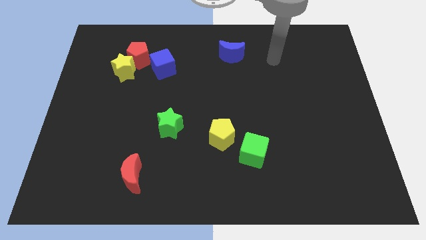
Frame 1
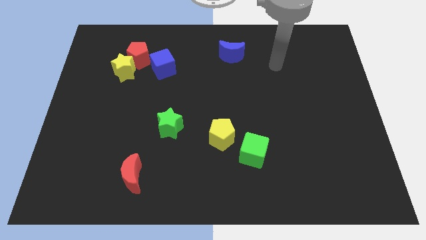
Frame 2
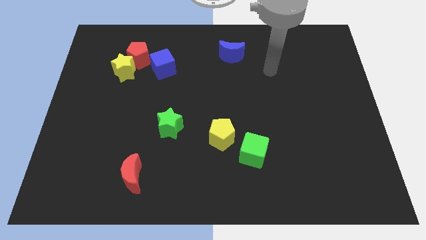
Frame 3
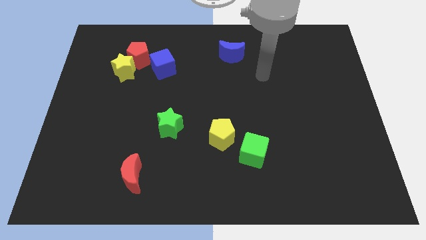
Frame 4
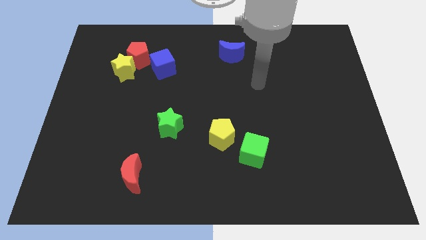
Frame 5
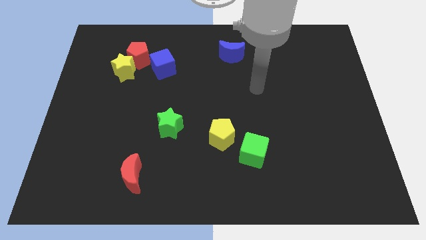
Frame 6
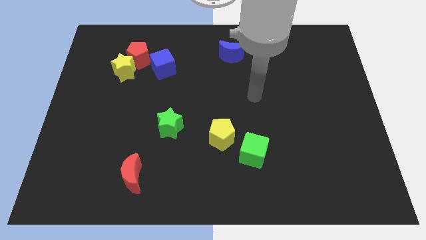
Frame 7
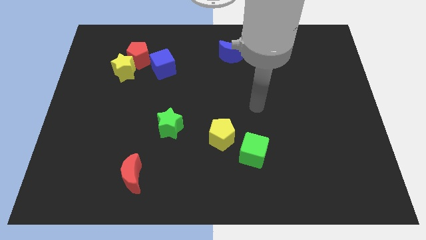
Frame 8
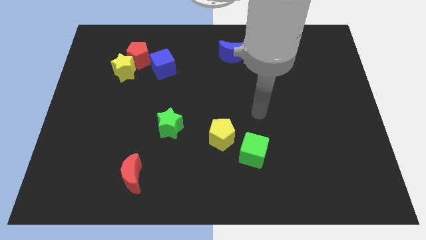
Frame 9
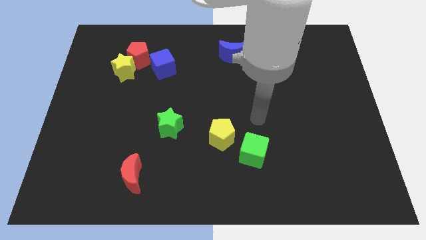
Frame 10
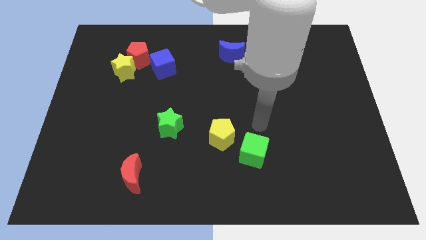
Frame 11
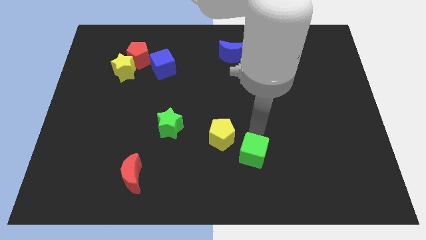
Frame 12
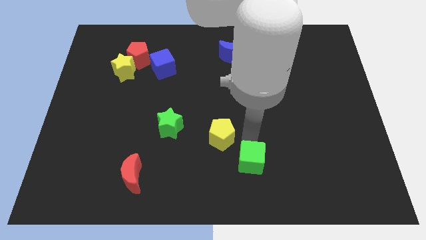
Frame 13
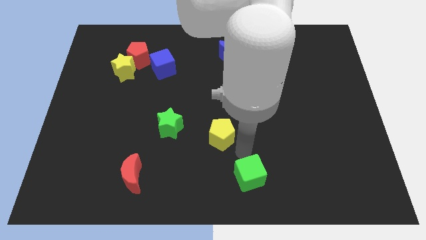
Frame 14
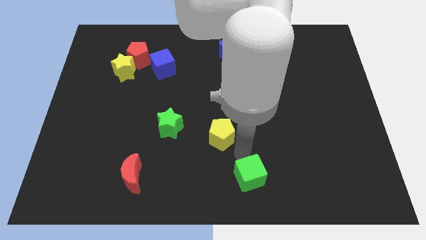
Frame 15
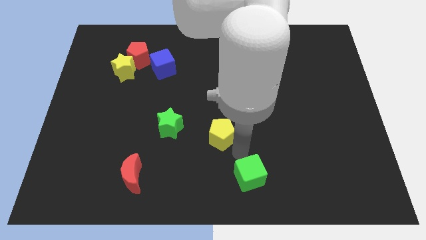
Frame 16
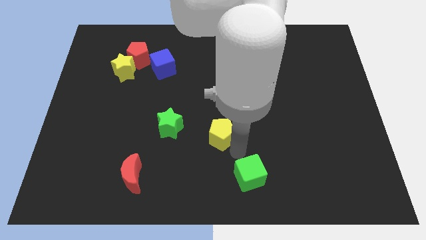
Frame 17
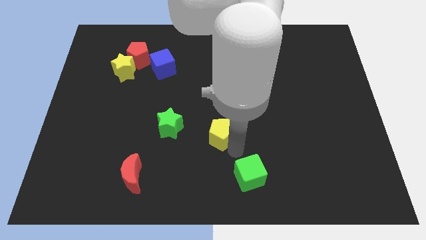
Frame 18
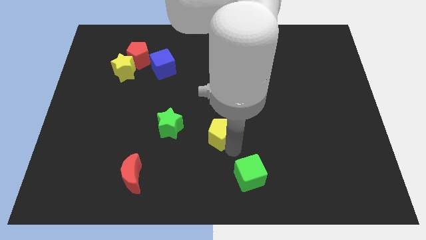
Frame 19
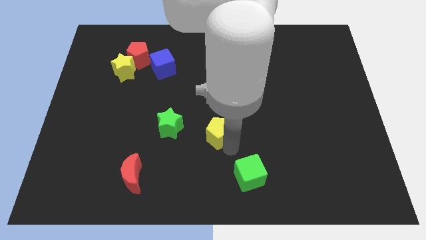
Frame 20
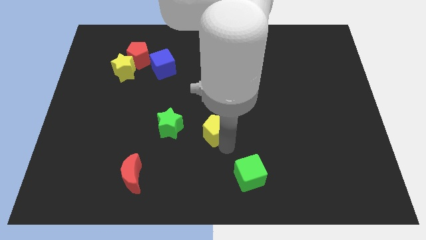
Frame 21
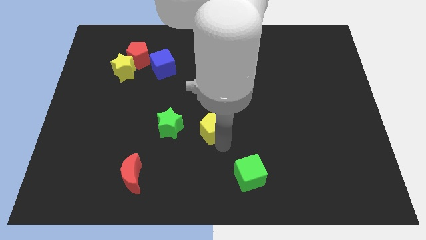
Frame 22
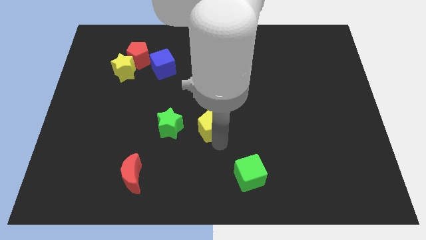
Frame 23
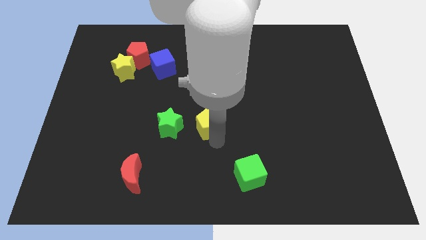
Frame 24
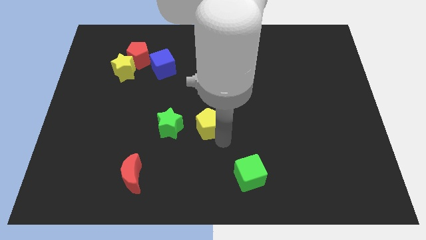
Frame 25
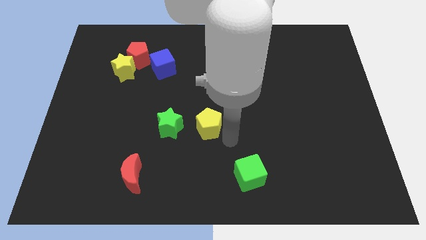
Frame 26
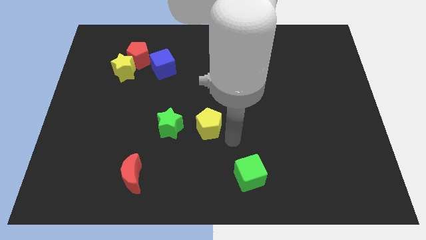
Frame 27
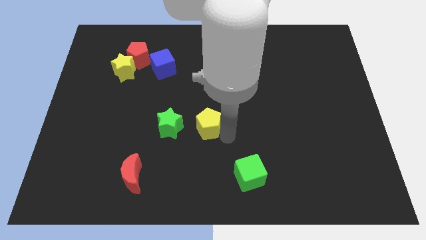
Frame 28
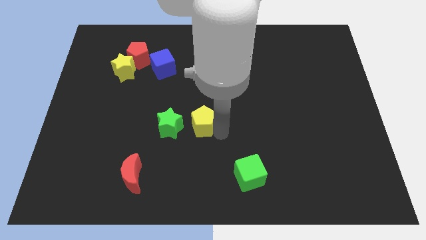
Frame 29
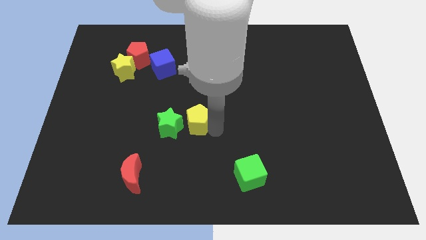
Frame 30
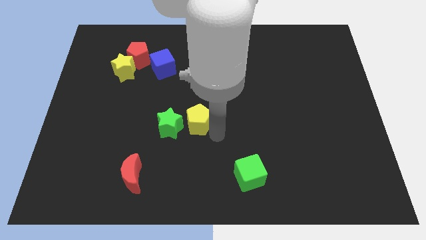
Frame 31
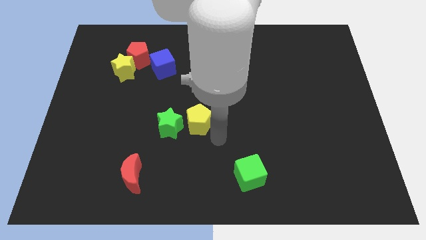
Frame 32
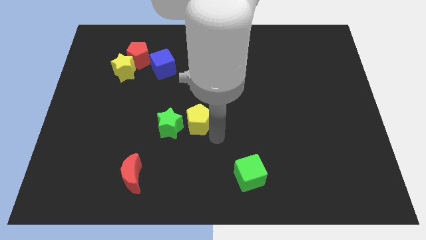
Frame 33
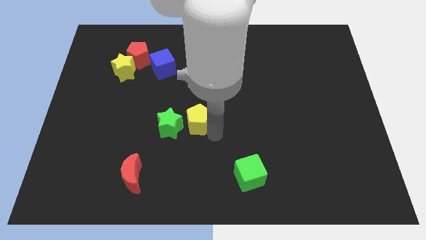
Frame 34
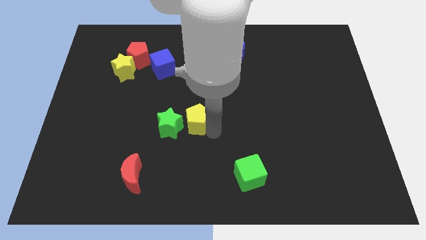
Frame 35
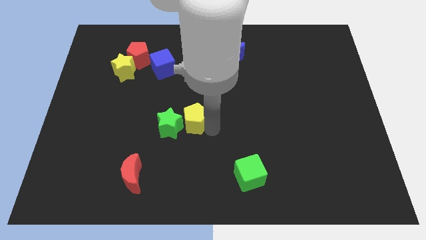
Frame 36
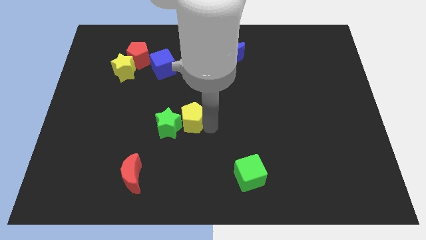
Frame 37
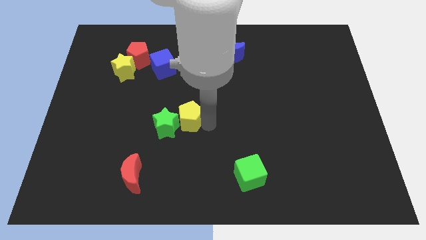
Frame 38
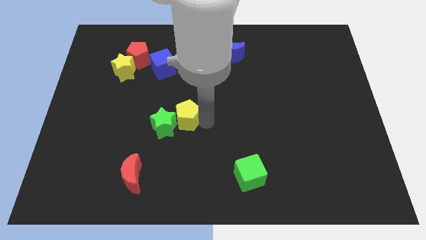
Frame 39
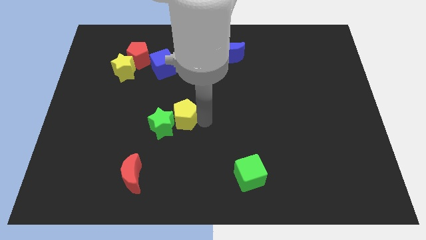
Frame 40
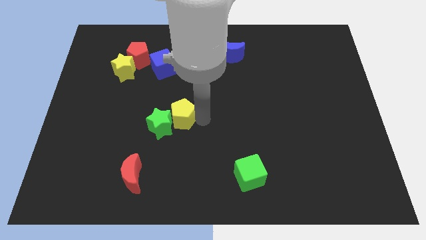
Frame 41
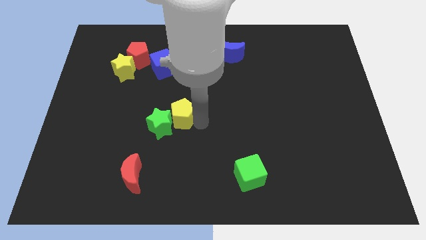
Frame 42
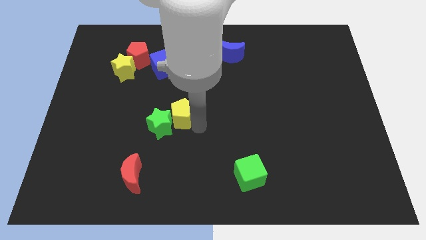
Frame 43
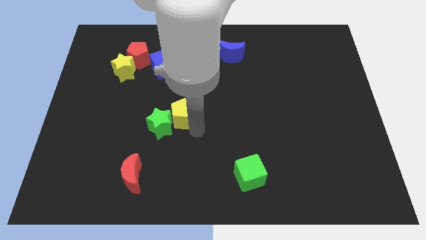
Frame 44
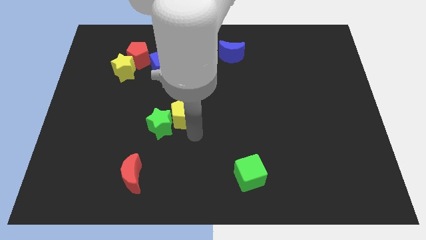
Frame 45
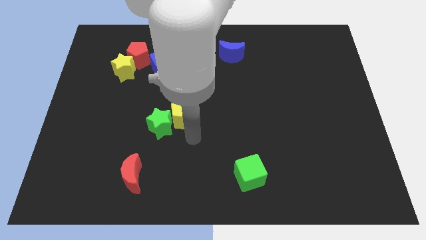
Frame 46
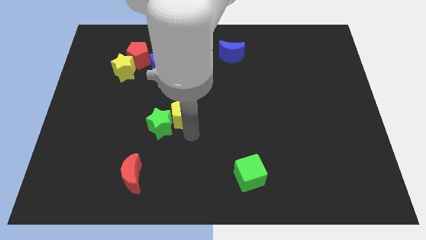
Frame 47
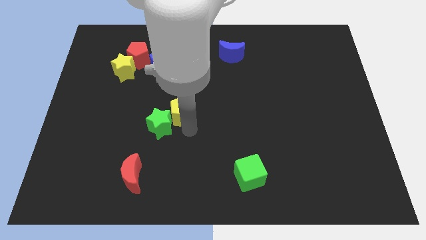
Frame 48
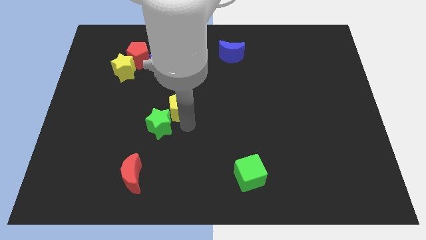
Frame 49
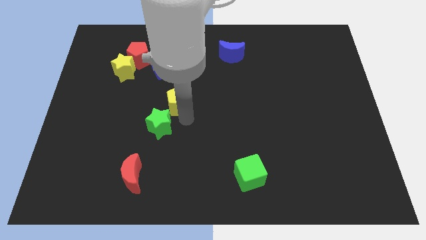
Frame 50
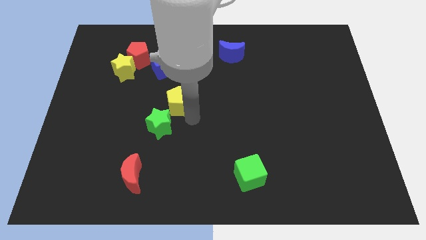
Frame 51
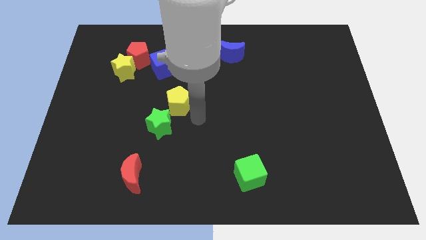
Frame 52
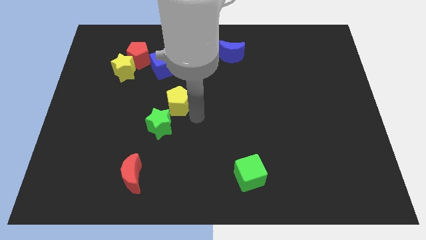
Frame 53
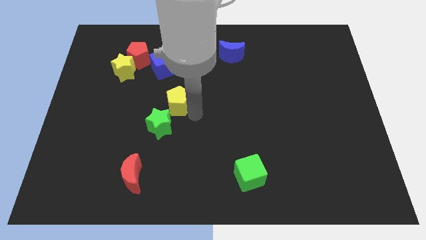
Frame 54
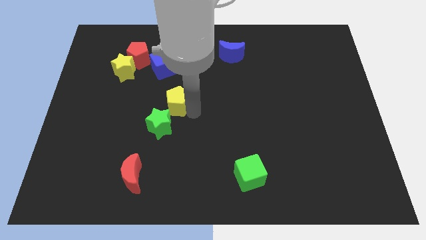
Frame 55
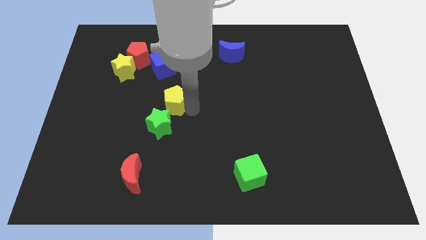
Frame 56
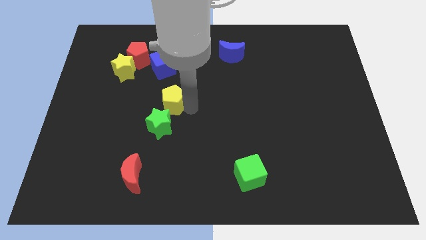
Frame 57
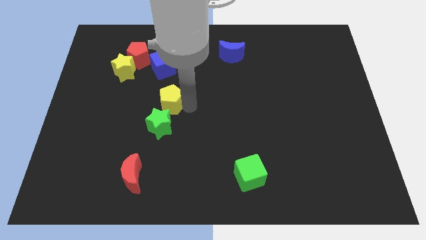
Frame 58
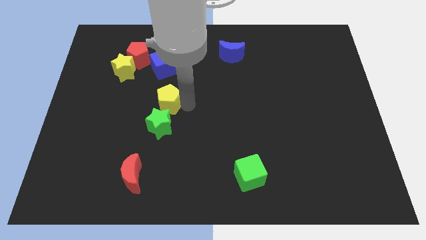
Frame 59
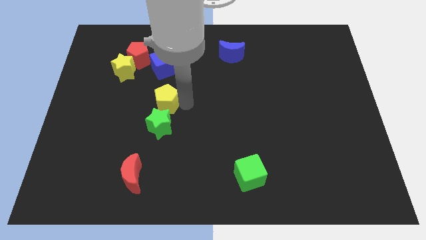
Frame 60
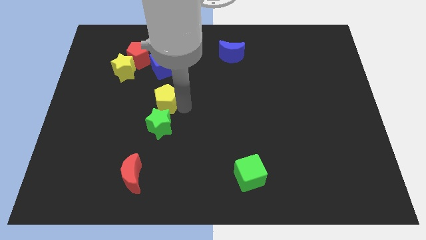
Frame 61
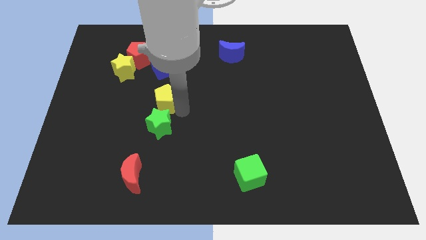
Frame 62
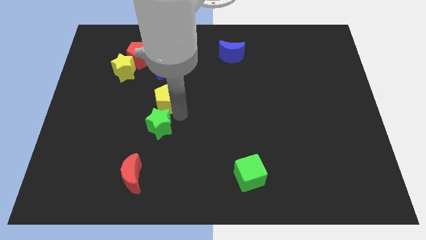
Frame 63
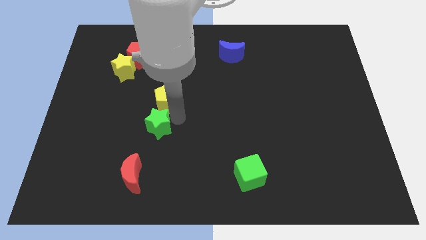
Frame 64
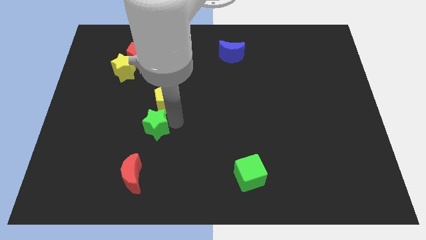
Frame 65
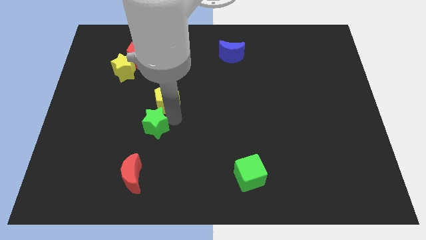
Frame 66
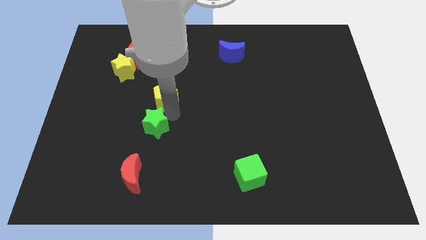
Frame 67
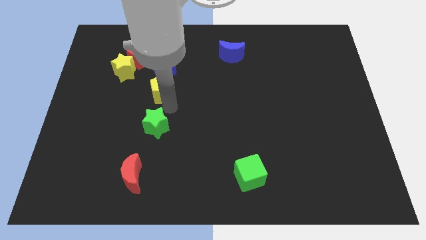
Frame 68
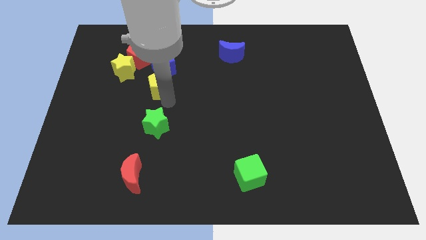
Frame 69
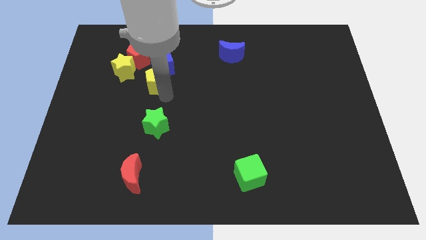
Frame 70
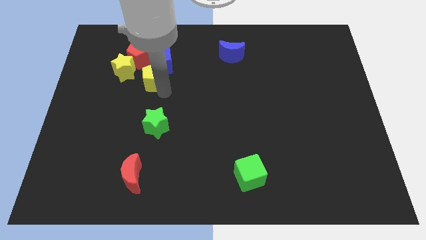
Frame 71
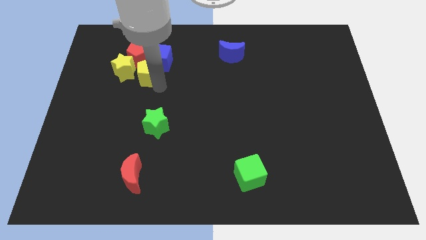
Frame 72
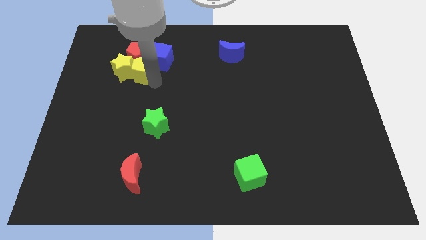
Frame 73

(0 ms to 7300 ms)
put the yellow pentagon close to the red pentagon
